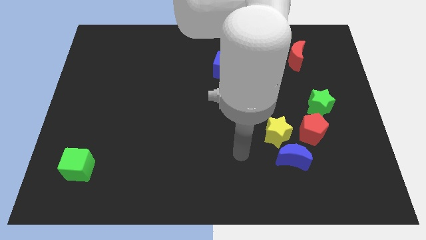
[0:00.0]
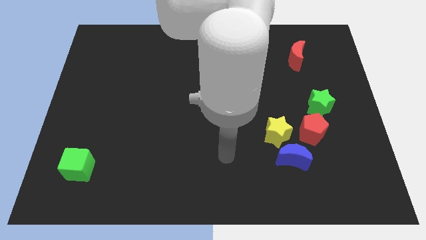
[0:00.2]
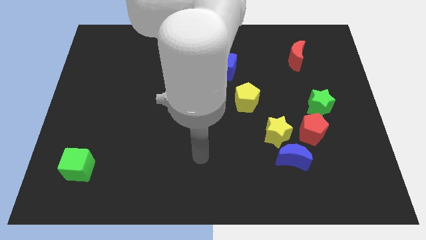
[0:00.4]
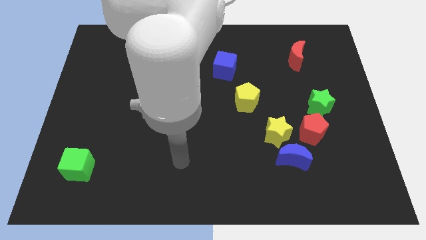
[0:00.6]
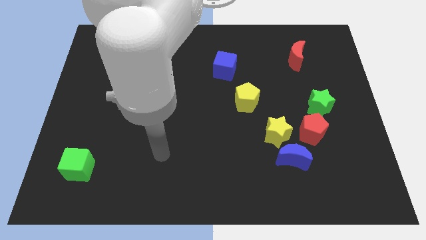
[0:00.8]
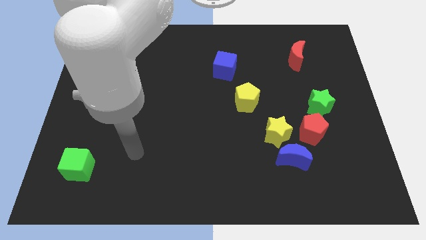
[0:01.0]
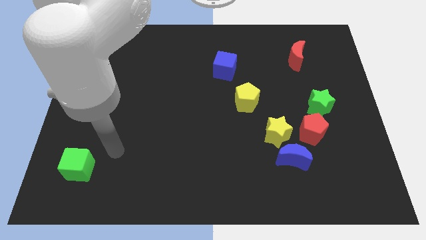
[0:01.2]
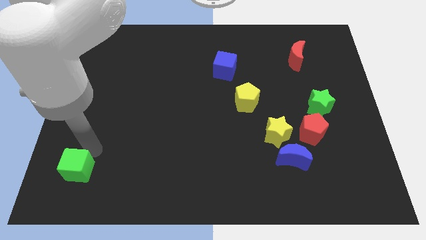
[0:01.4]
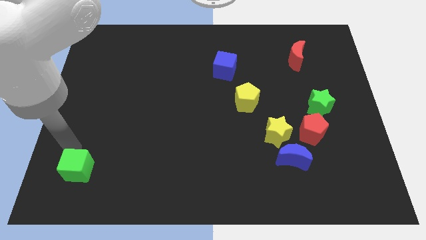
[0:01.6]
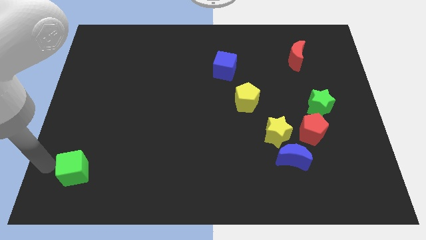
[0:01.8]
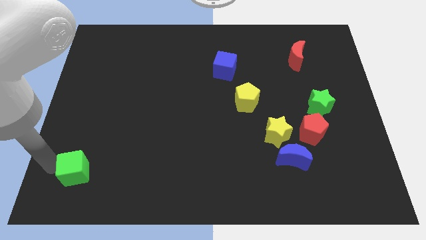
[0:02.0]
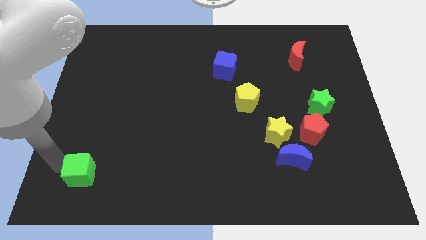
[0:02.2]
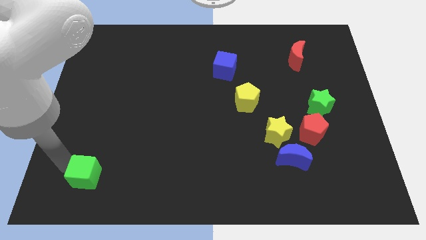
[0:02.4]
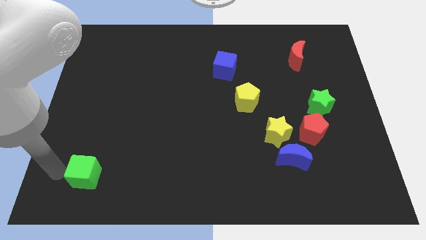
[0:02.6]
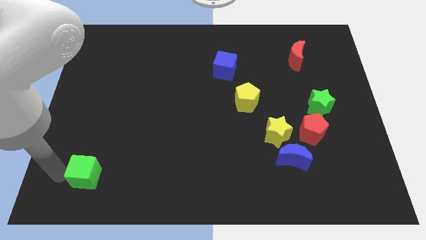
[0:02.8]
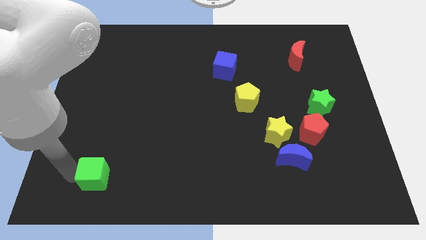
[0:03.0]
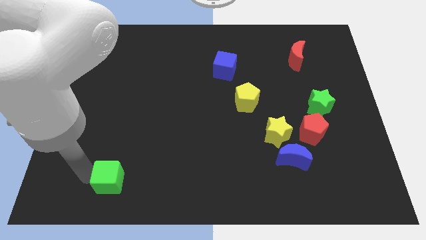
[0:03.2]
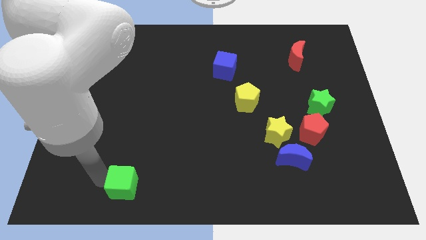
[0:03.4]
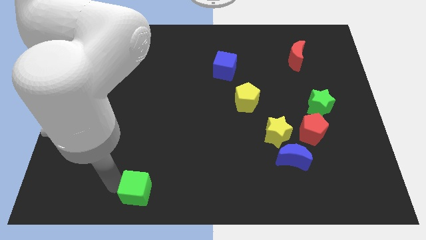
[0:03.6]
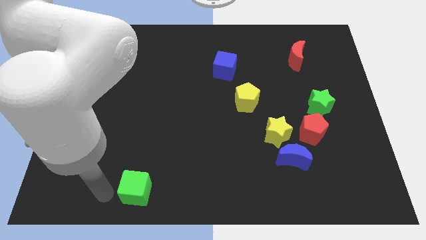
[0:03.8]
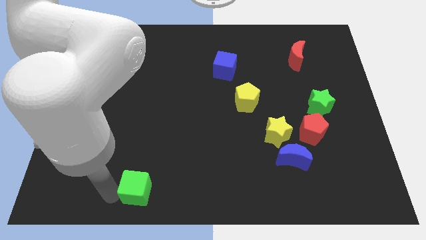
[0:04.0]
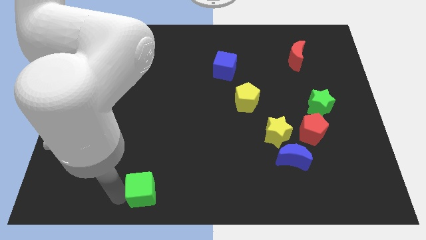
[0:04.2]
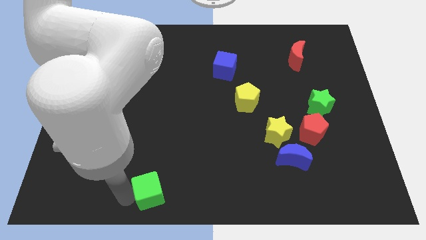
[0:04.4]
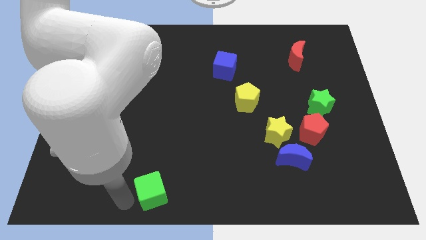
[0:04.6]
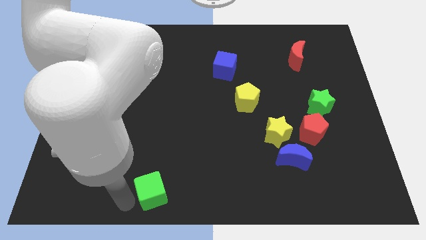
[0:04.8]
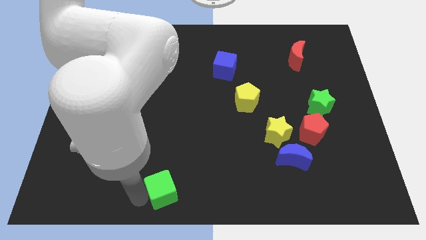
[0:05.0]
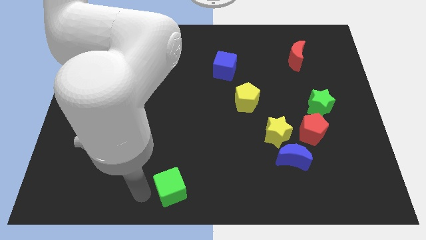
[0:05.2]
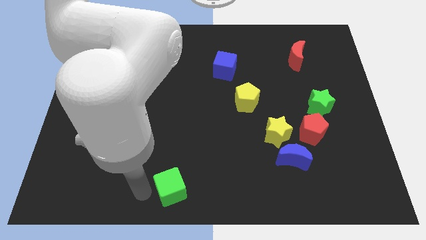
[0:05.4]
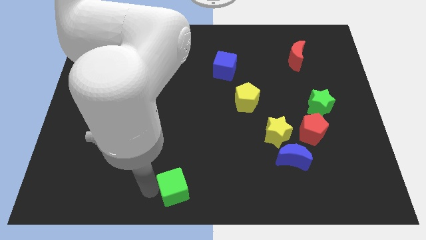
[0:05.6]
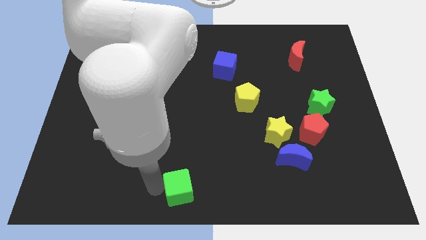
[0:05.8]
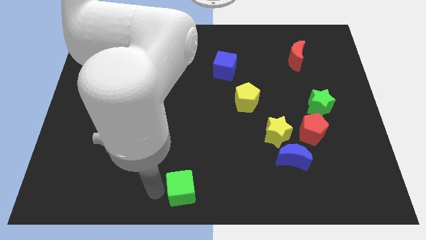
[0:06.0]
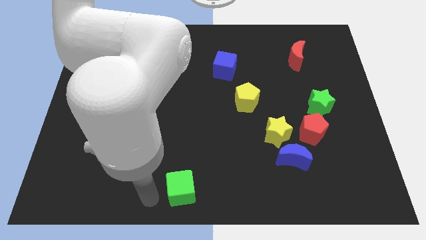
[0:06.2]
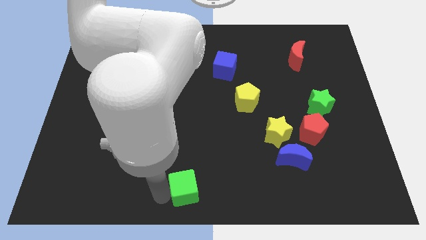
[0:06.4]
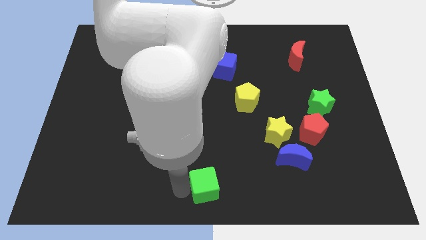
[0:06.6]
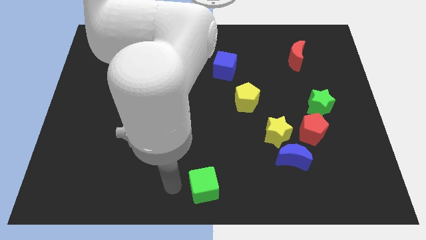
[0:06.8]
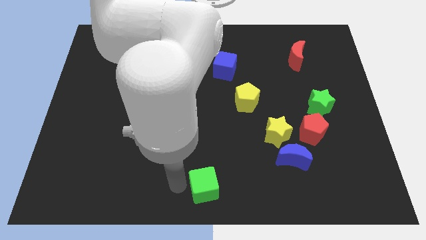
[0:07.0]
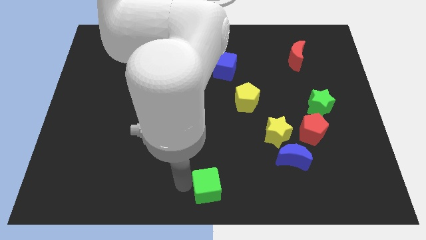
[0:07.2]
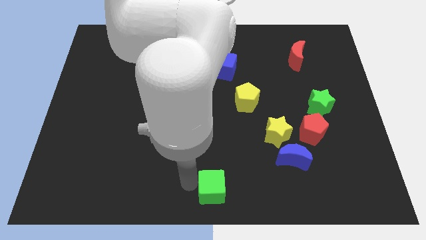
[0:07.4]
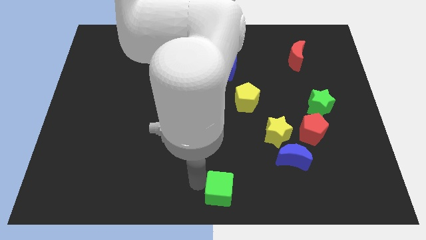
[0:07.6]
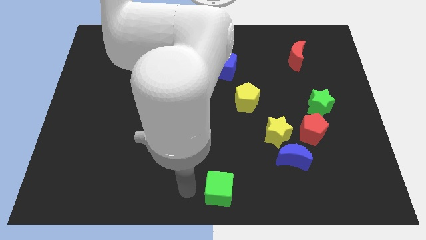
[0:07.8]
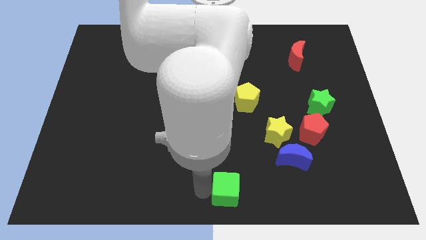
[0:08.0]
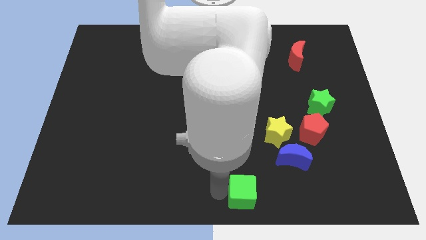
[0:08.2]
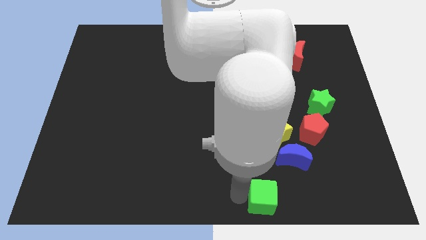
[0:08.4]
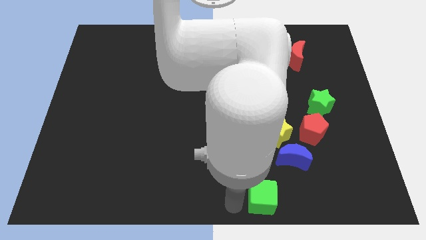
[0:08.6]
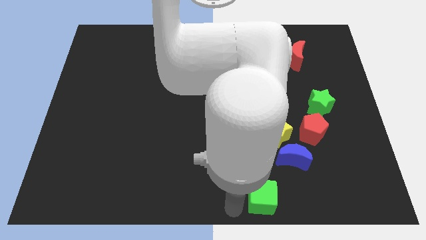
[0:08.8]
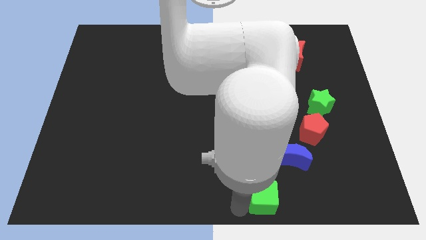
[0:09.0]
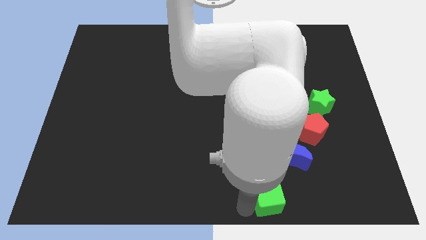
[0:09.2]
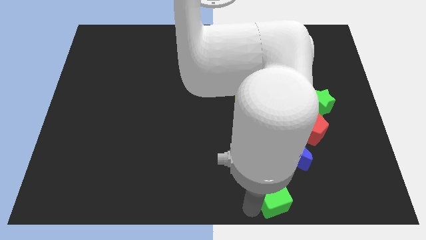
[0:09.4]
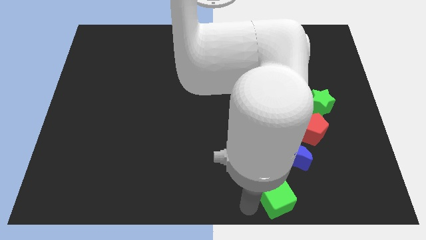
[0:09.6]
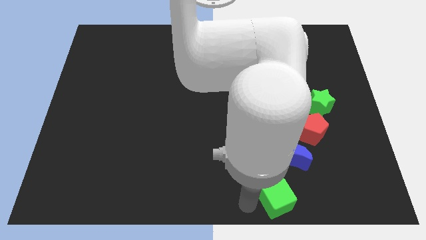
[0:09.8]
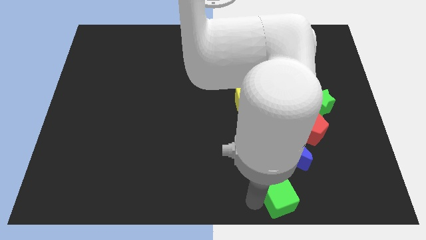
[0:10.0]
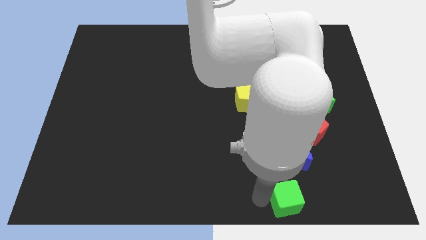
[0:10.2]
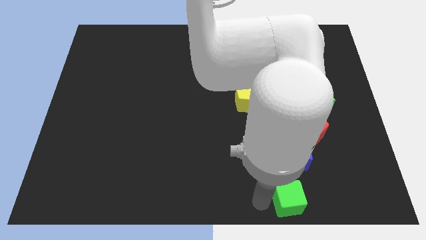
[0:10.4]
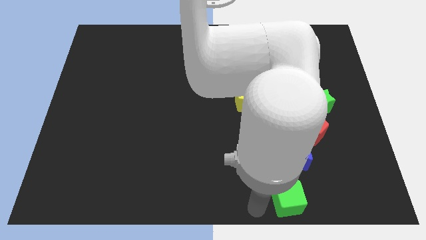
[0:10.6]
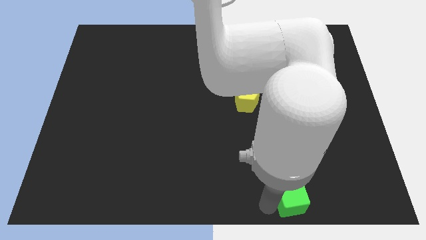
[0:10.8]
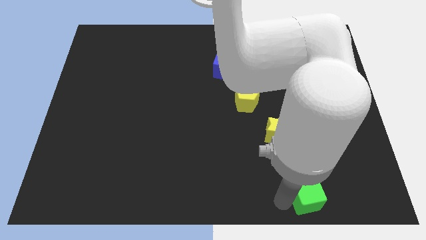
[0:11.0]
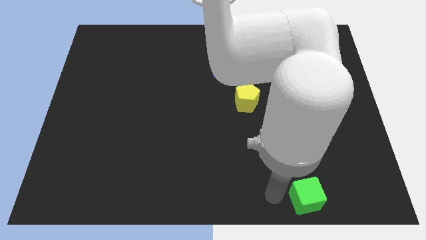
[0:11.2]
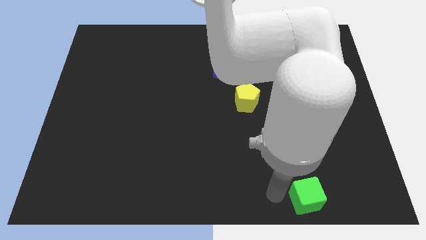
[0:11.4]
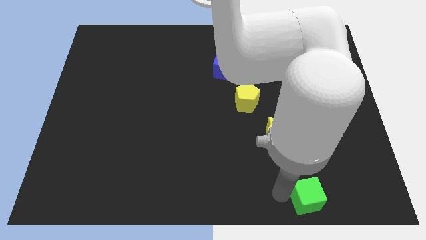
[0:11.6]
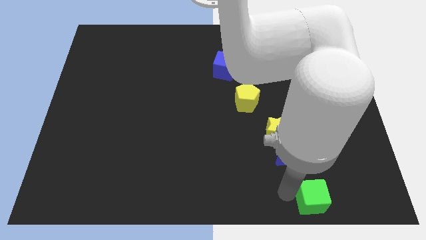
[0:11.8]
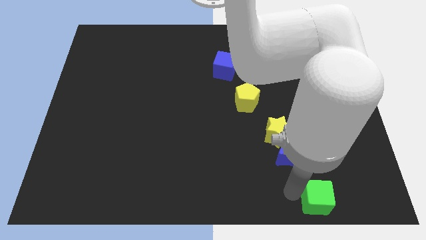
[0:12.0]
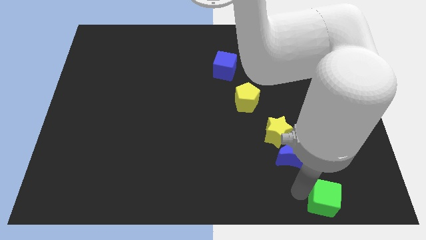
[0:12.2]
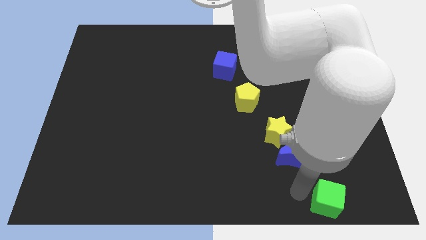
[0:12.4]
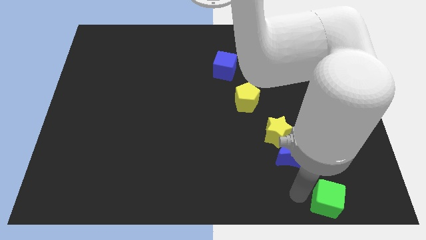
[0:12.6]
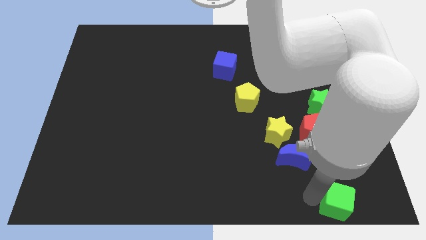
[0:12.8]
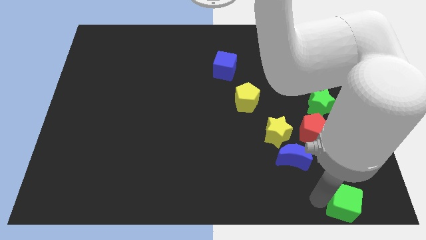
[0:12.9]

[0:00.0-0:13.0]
put the green cube to the lower right corner
